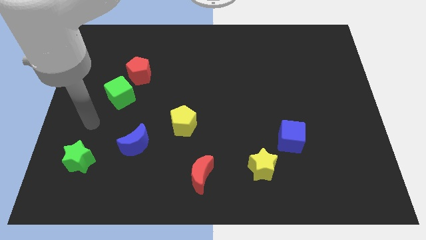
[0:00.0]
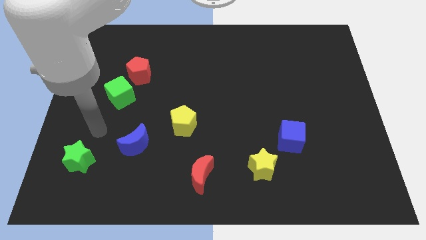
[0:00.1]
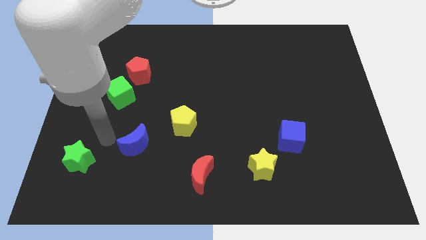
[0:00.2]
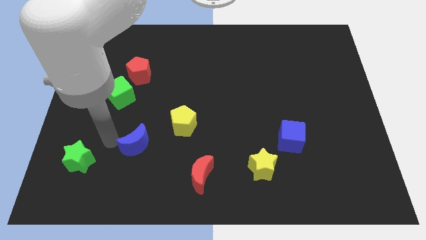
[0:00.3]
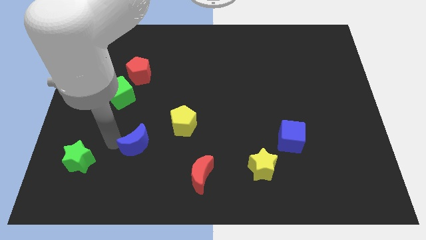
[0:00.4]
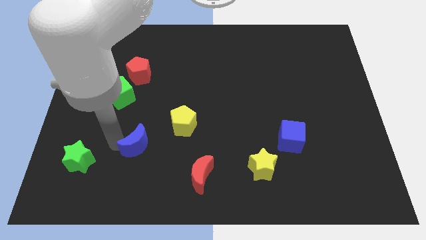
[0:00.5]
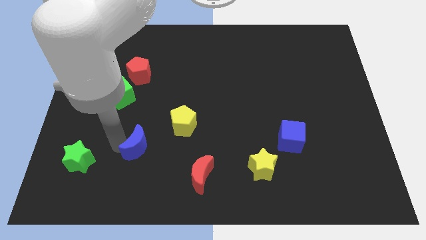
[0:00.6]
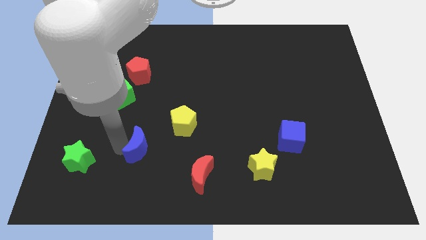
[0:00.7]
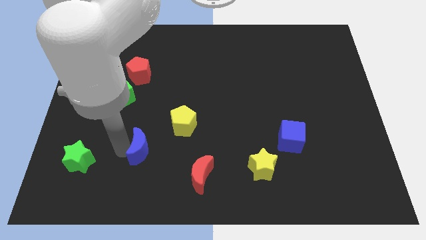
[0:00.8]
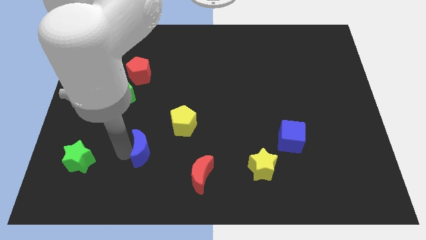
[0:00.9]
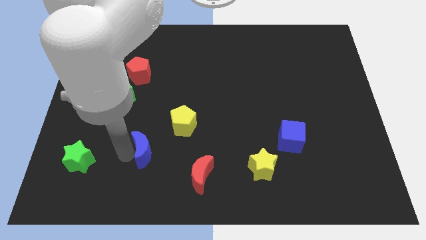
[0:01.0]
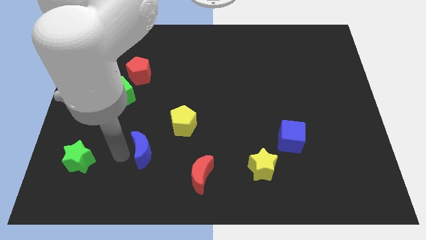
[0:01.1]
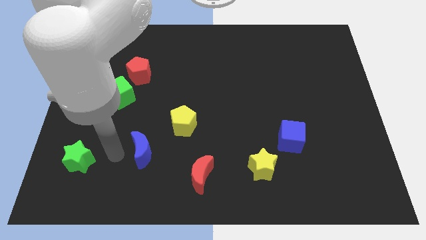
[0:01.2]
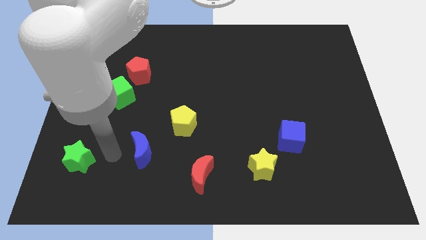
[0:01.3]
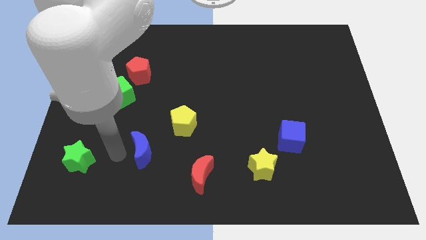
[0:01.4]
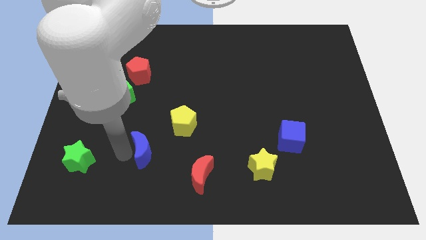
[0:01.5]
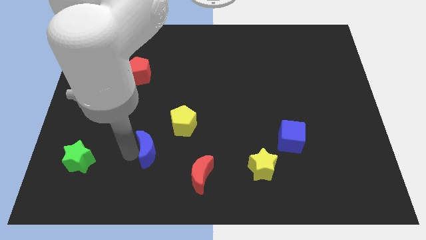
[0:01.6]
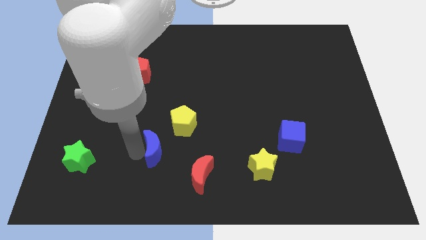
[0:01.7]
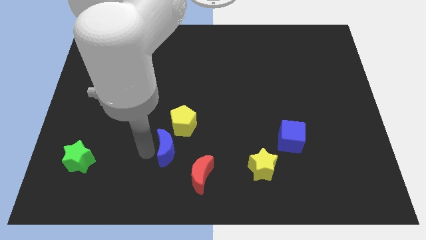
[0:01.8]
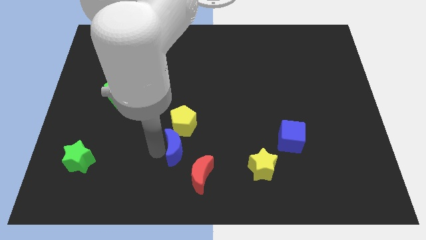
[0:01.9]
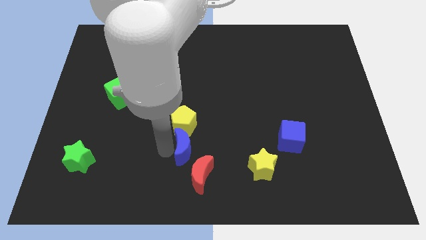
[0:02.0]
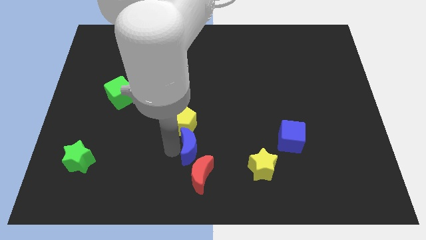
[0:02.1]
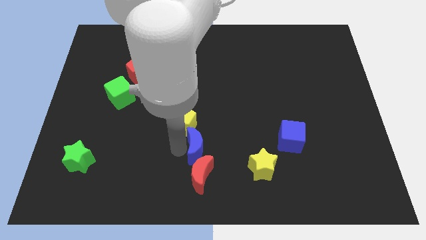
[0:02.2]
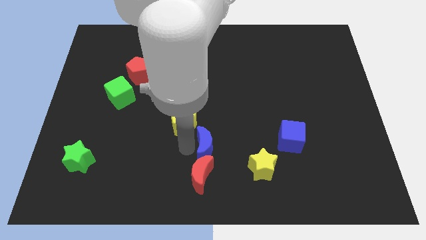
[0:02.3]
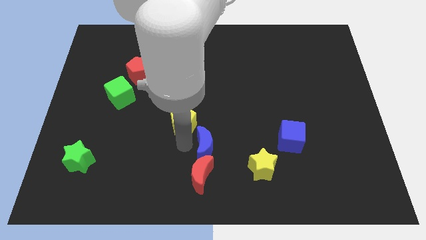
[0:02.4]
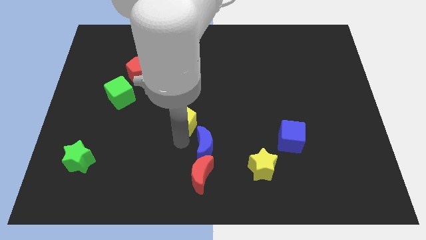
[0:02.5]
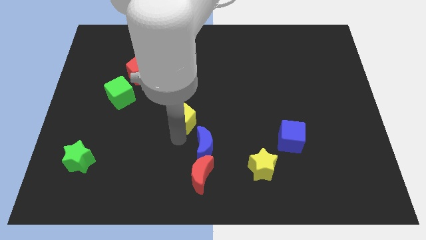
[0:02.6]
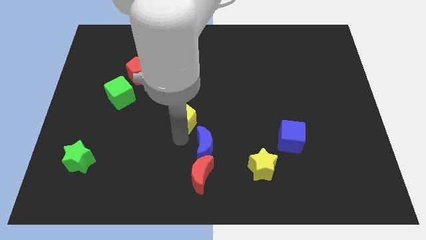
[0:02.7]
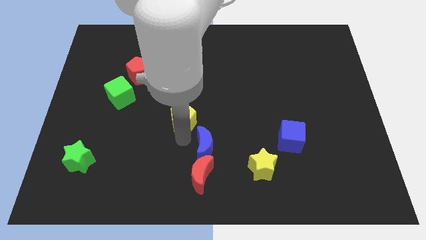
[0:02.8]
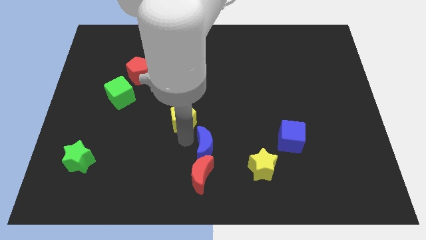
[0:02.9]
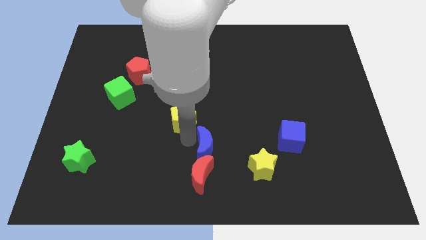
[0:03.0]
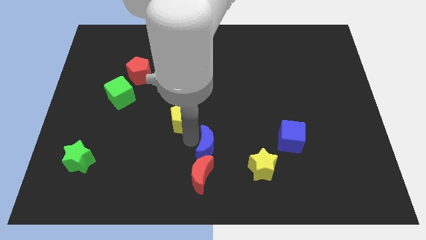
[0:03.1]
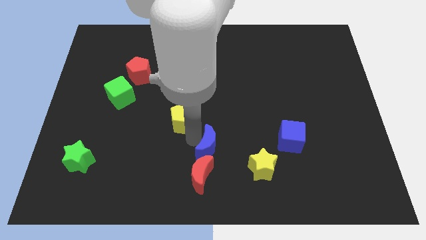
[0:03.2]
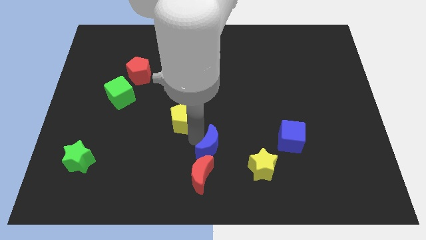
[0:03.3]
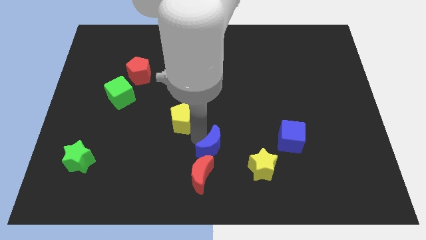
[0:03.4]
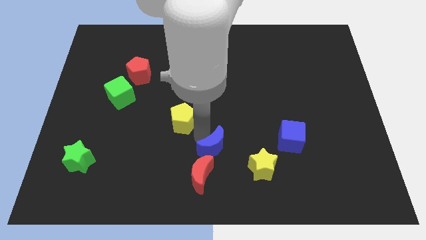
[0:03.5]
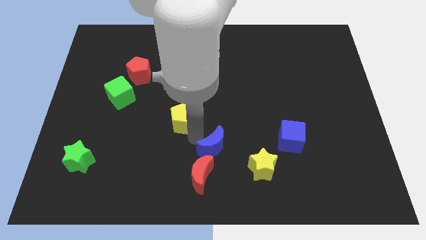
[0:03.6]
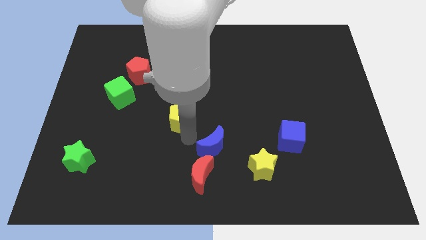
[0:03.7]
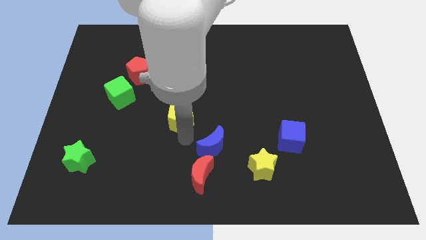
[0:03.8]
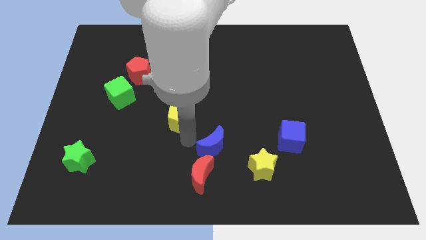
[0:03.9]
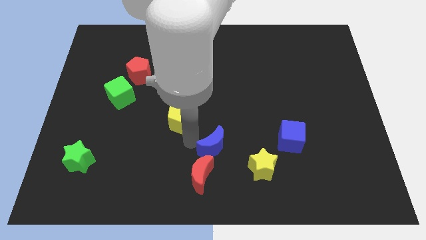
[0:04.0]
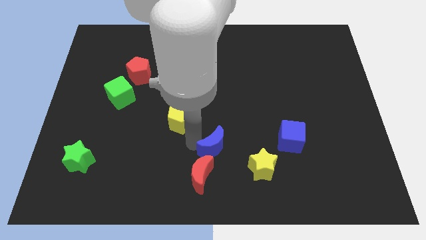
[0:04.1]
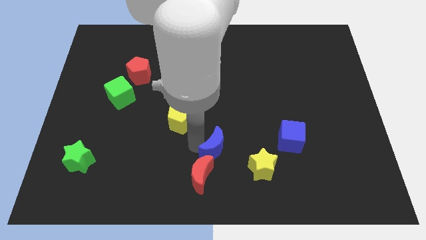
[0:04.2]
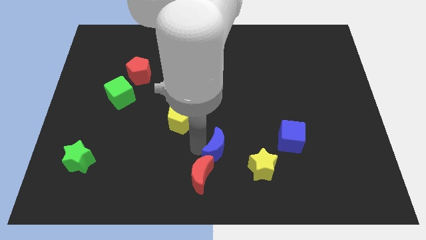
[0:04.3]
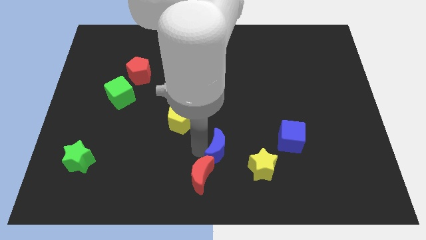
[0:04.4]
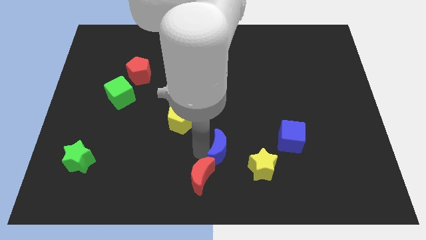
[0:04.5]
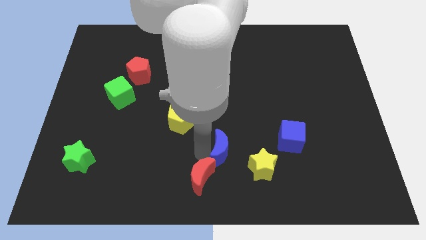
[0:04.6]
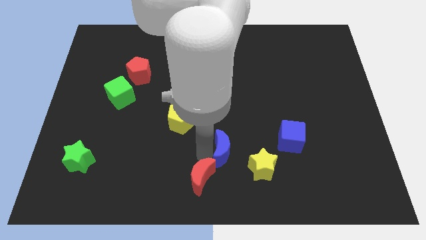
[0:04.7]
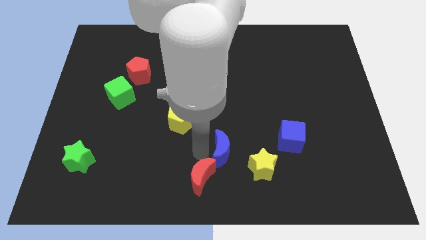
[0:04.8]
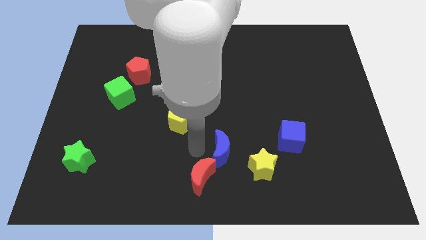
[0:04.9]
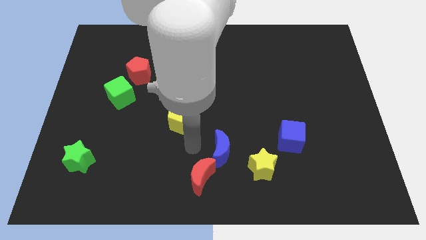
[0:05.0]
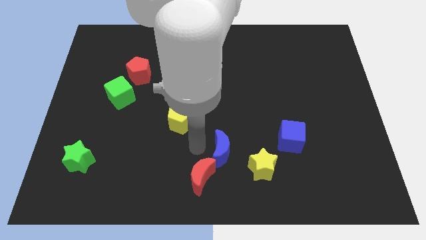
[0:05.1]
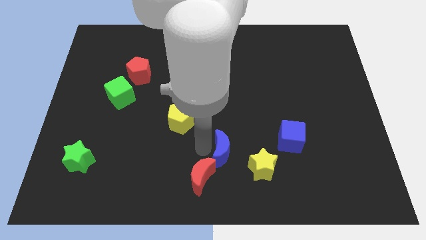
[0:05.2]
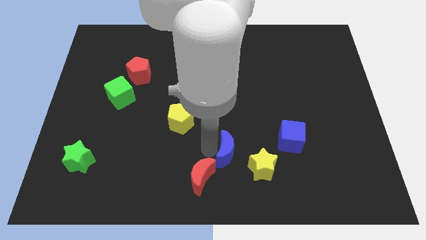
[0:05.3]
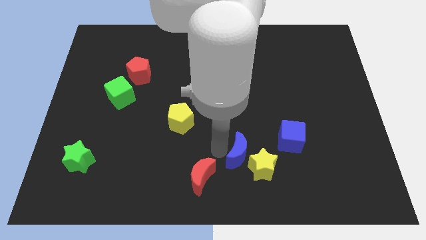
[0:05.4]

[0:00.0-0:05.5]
put the blue moon to the yellow star

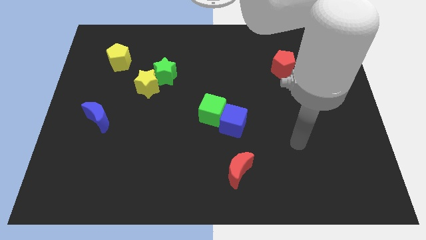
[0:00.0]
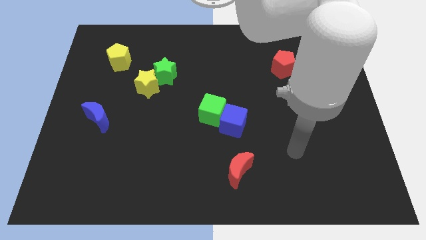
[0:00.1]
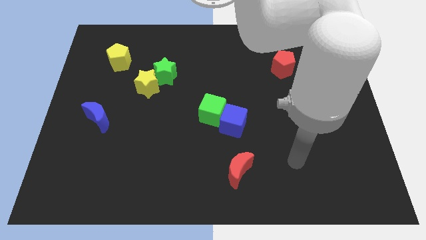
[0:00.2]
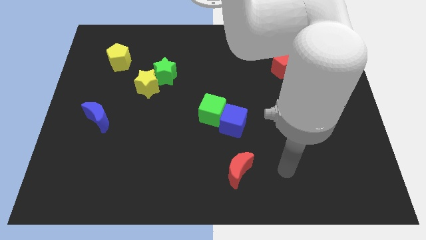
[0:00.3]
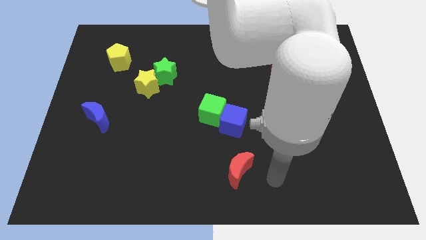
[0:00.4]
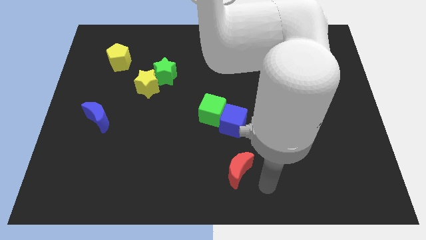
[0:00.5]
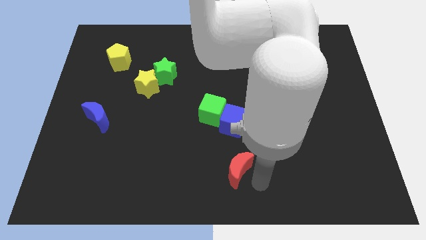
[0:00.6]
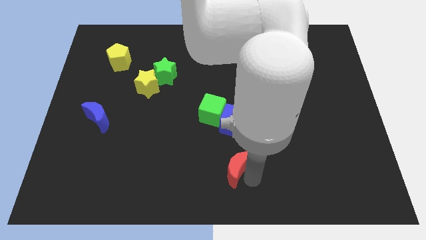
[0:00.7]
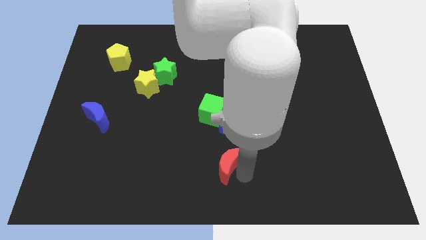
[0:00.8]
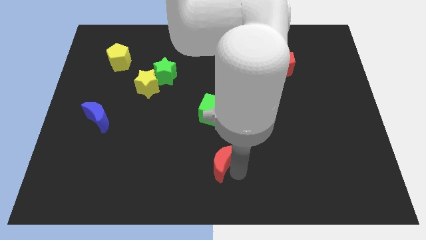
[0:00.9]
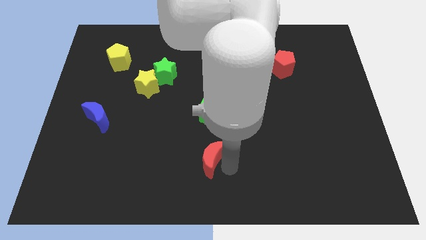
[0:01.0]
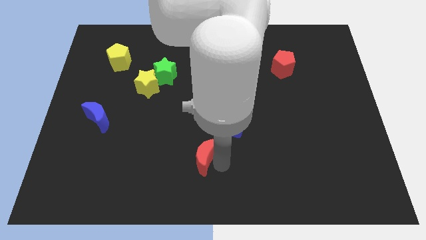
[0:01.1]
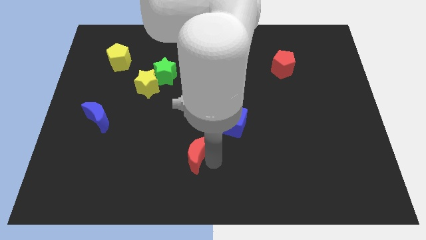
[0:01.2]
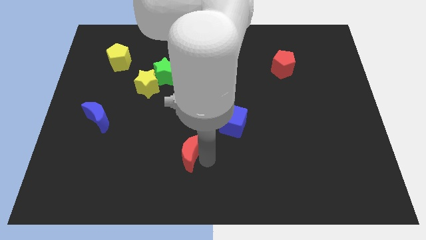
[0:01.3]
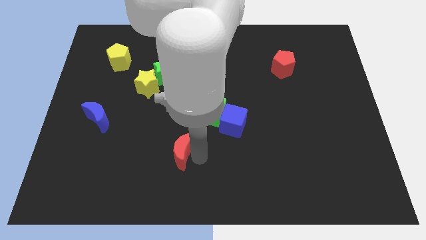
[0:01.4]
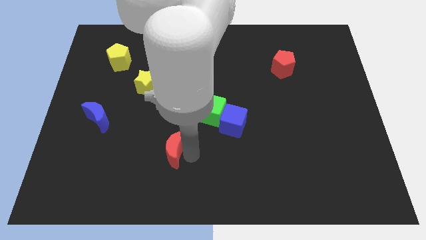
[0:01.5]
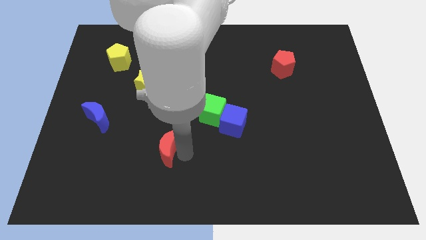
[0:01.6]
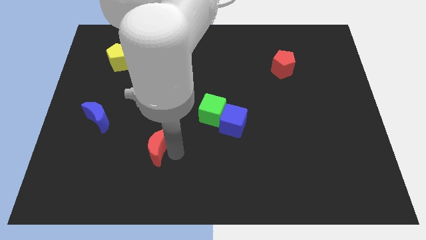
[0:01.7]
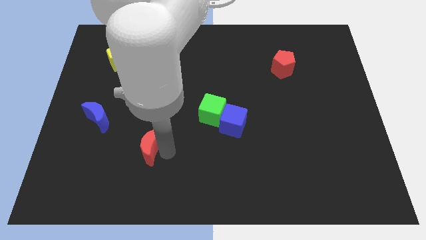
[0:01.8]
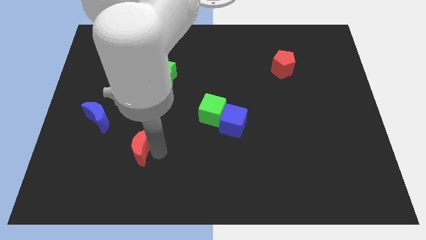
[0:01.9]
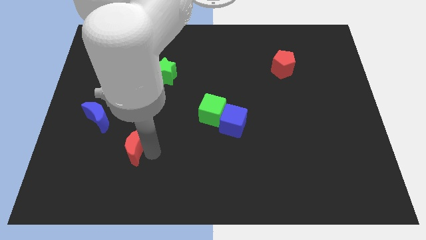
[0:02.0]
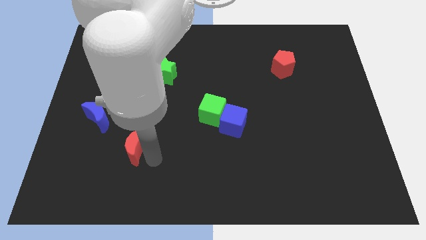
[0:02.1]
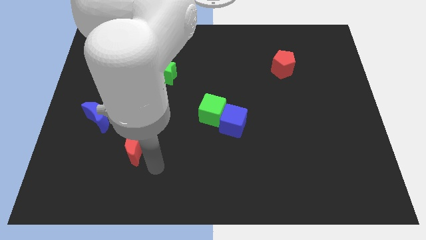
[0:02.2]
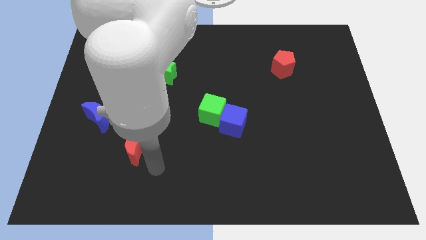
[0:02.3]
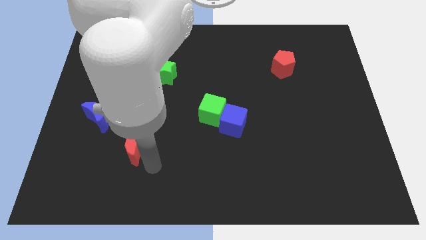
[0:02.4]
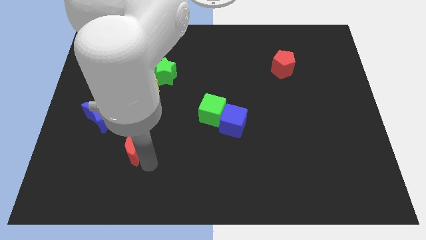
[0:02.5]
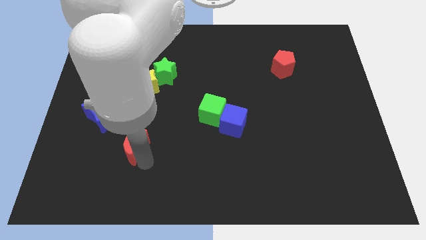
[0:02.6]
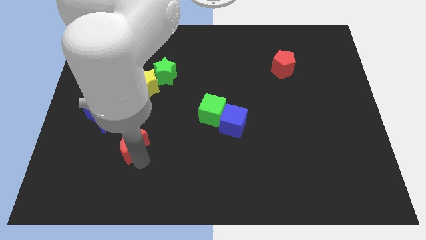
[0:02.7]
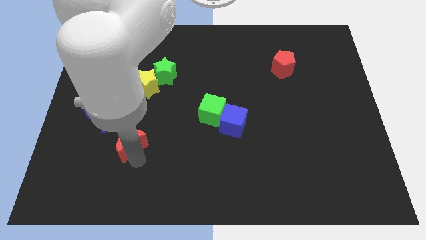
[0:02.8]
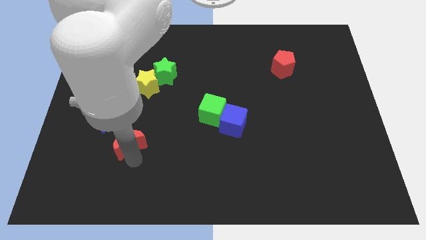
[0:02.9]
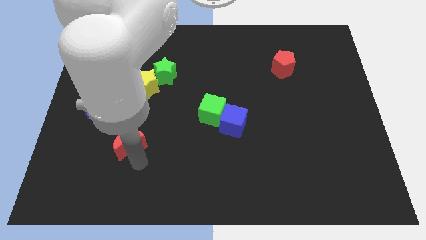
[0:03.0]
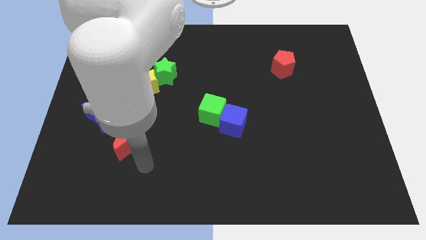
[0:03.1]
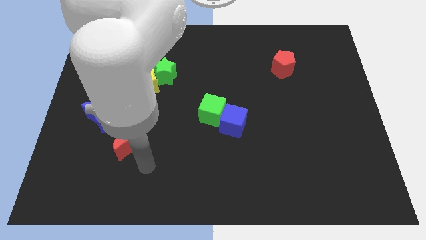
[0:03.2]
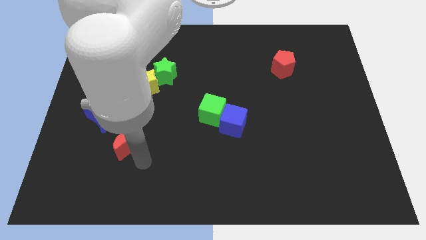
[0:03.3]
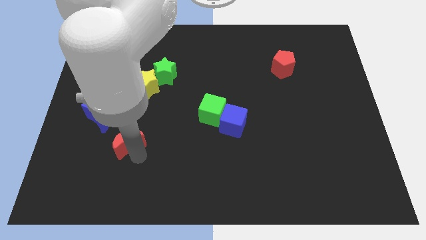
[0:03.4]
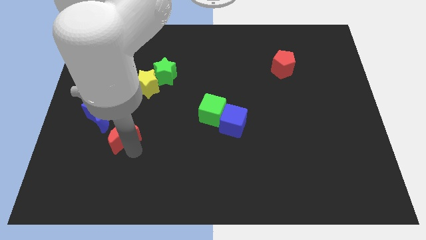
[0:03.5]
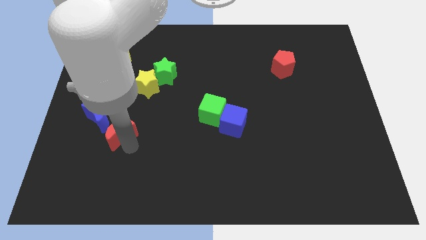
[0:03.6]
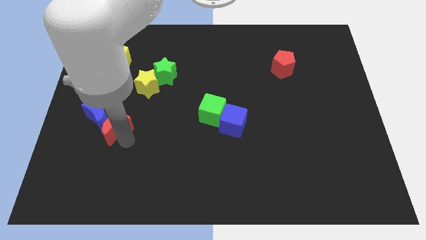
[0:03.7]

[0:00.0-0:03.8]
slide the red moon next to the blue moon
